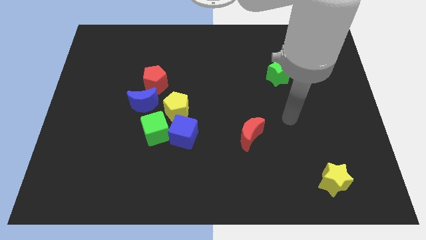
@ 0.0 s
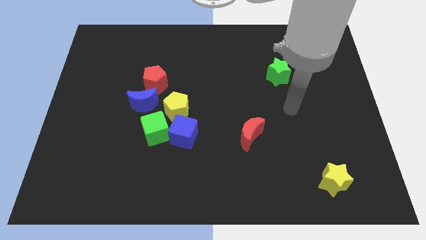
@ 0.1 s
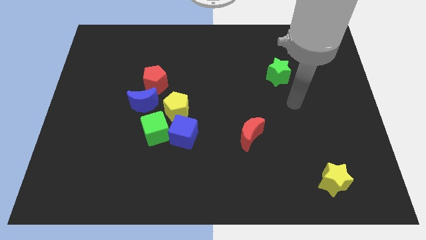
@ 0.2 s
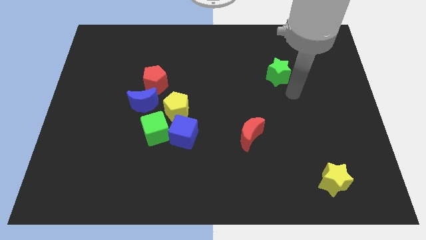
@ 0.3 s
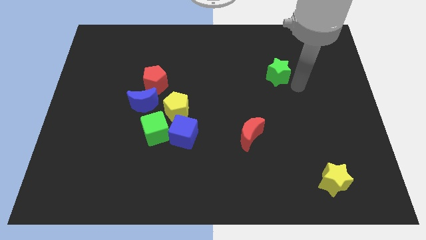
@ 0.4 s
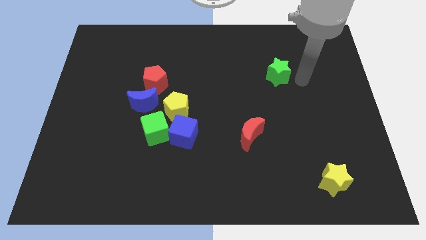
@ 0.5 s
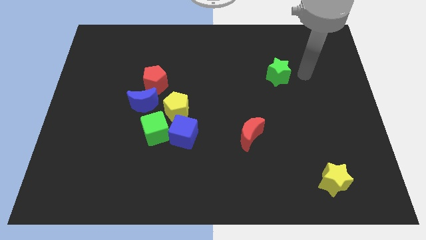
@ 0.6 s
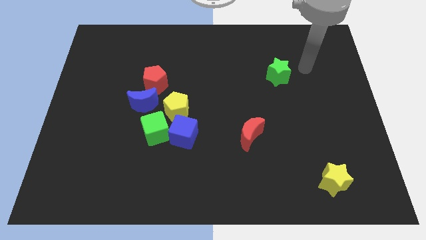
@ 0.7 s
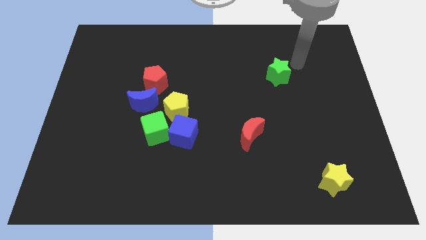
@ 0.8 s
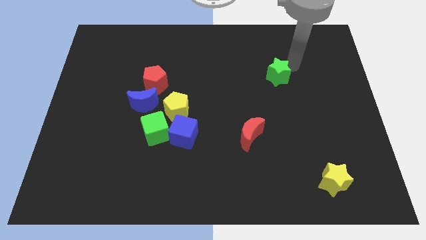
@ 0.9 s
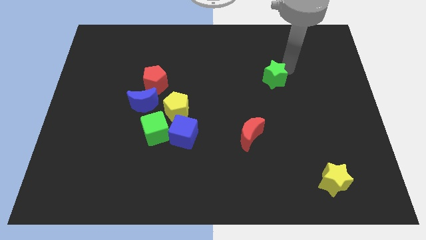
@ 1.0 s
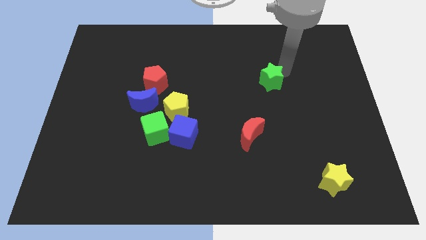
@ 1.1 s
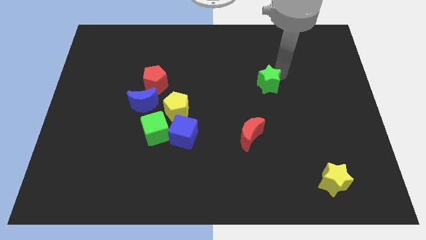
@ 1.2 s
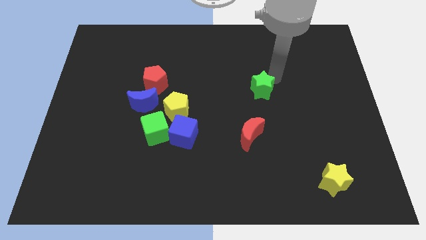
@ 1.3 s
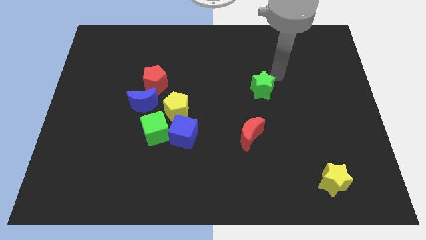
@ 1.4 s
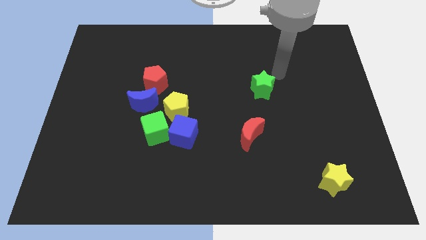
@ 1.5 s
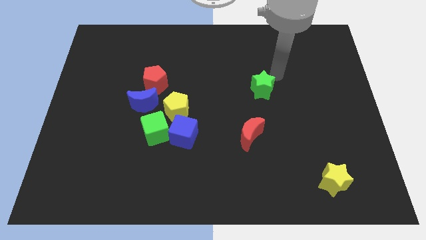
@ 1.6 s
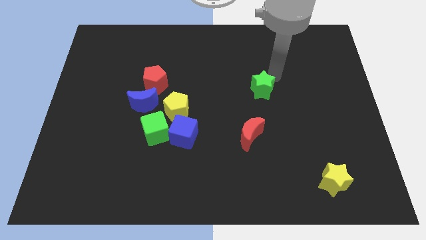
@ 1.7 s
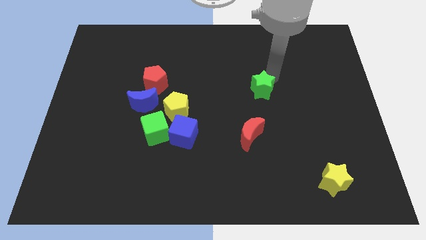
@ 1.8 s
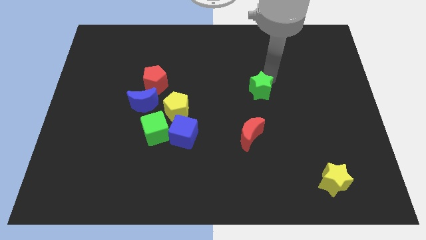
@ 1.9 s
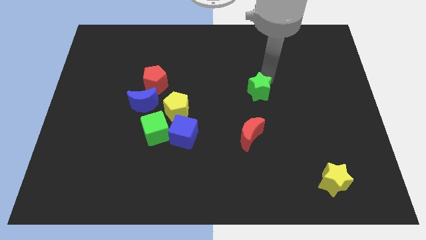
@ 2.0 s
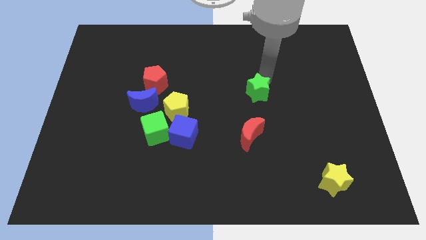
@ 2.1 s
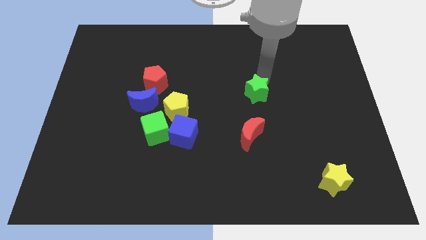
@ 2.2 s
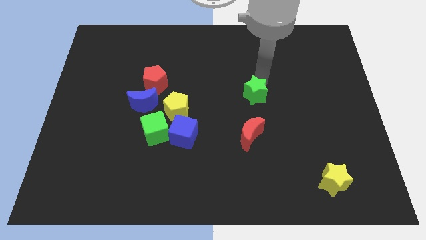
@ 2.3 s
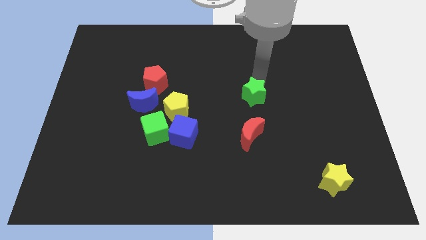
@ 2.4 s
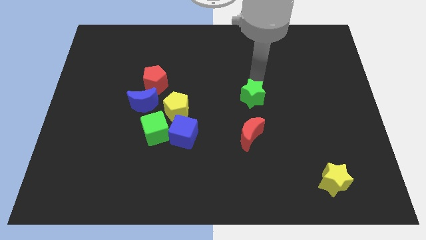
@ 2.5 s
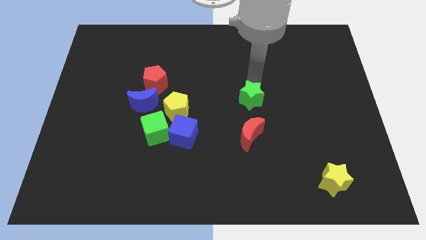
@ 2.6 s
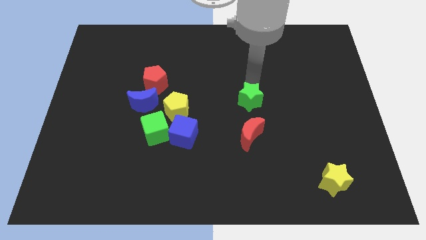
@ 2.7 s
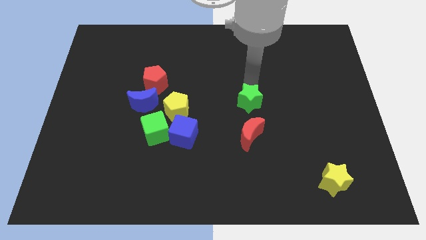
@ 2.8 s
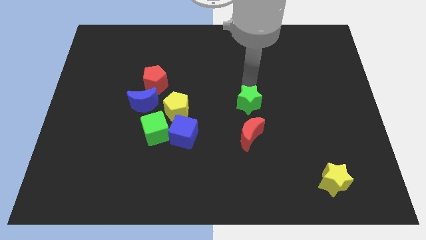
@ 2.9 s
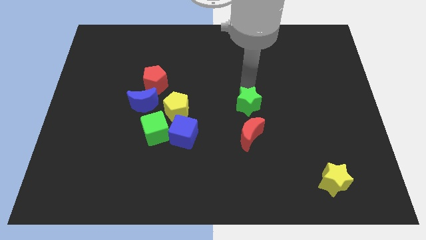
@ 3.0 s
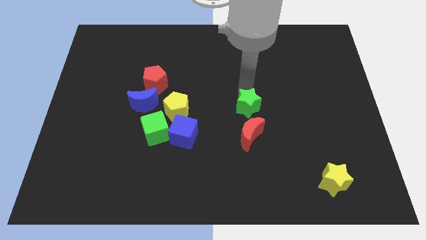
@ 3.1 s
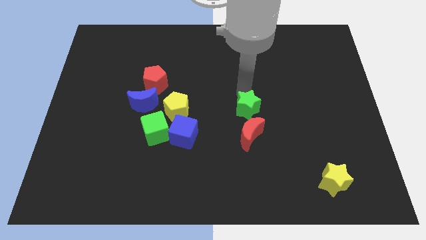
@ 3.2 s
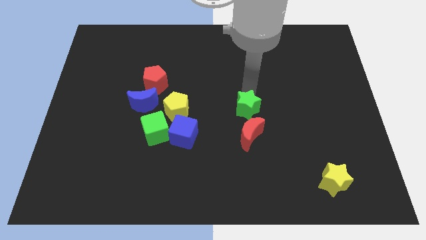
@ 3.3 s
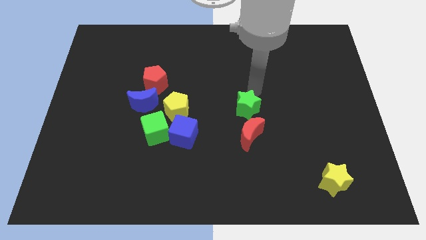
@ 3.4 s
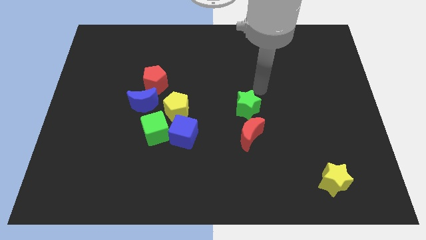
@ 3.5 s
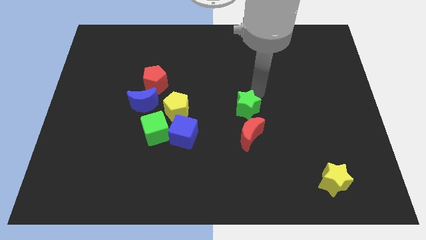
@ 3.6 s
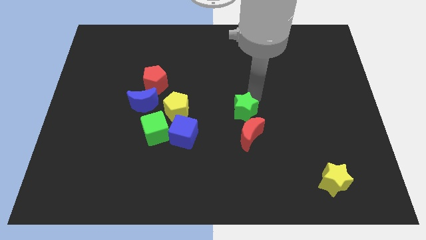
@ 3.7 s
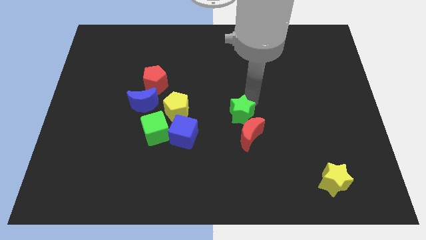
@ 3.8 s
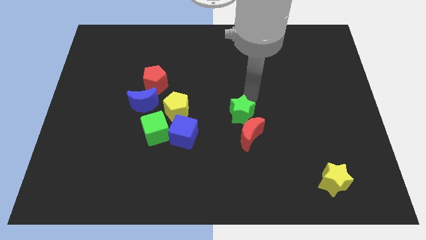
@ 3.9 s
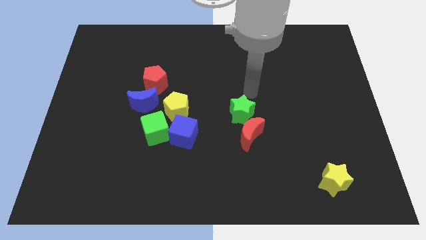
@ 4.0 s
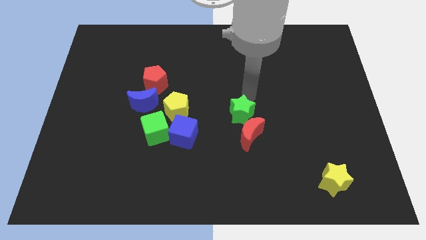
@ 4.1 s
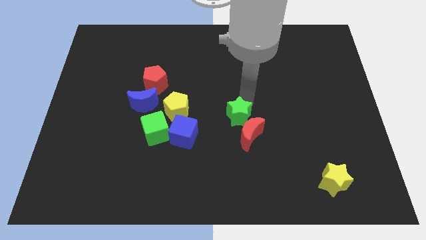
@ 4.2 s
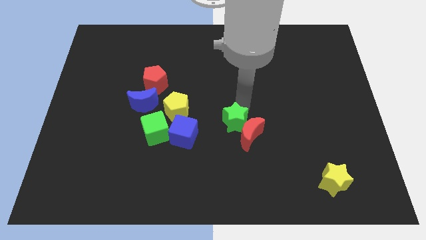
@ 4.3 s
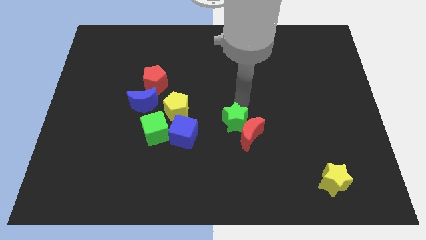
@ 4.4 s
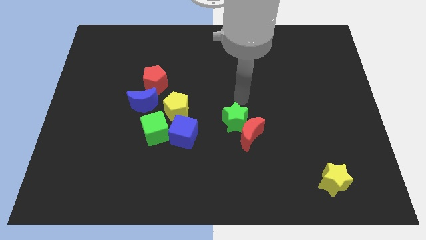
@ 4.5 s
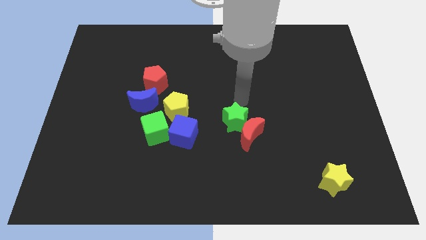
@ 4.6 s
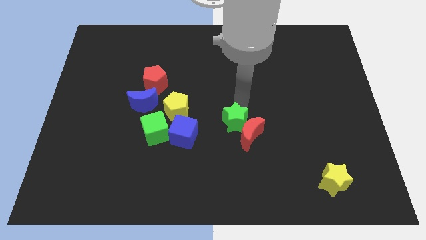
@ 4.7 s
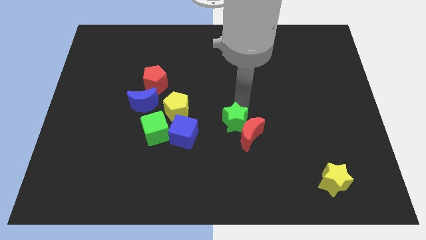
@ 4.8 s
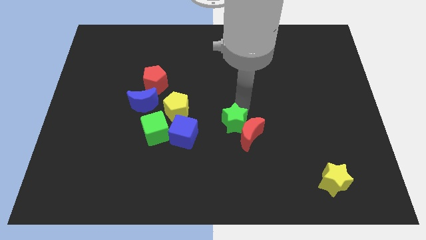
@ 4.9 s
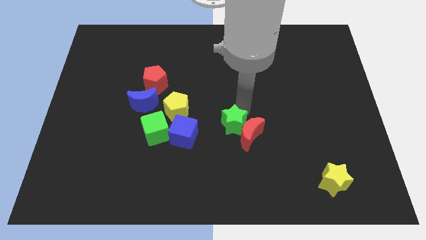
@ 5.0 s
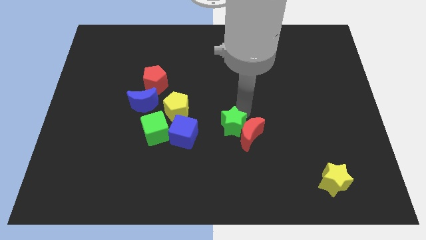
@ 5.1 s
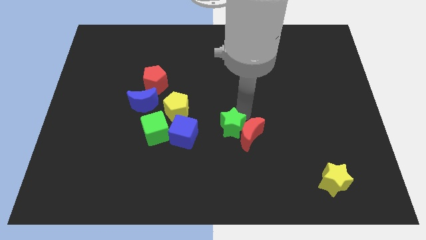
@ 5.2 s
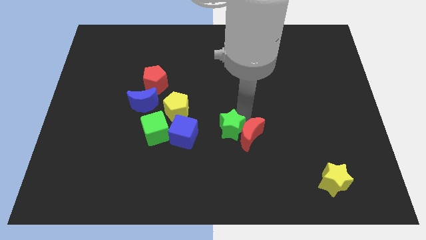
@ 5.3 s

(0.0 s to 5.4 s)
put the green star to the bottom left side of the red moon

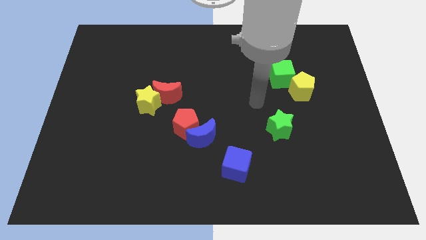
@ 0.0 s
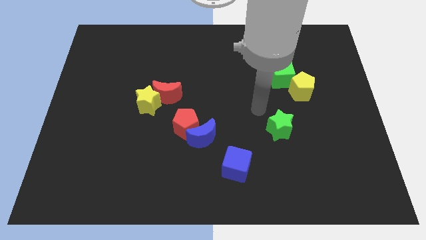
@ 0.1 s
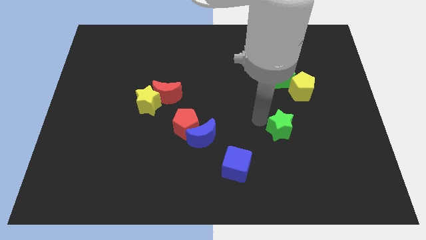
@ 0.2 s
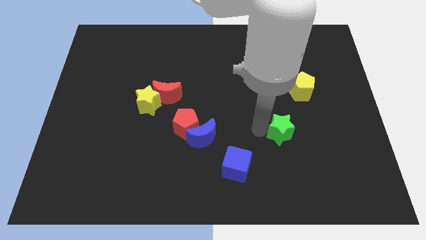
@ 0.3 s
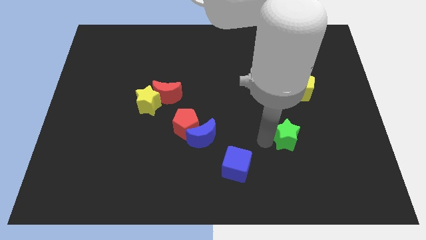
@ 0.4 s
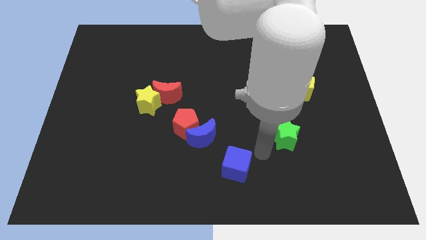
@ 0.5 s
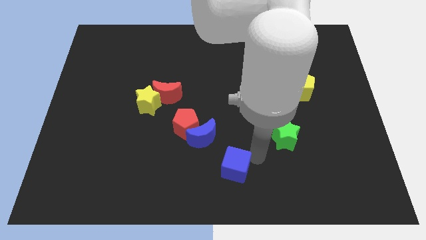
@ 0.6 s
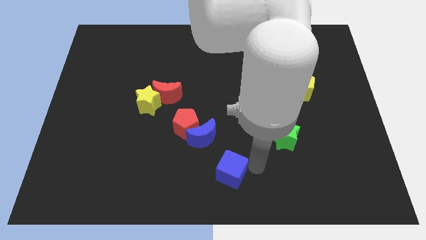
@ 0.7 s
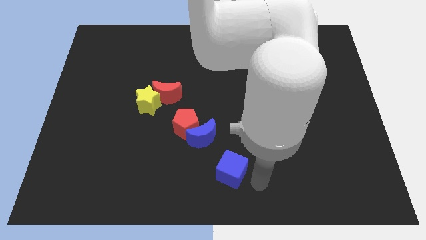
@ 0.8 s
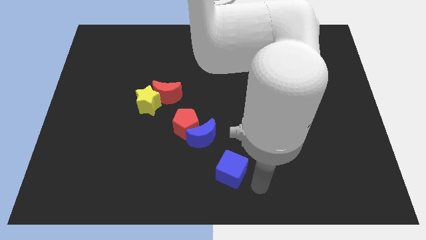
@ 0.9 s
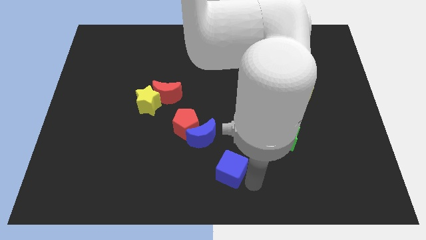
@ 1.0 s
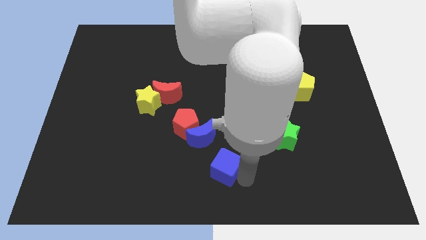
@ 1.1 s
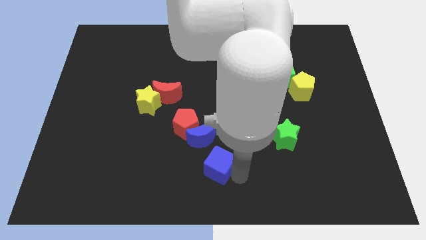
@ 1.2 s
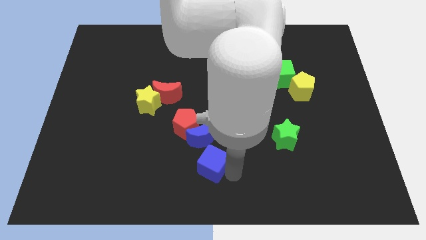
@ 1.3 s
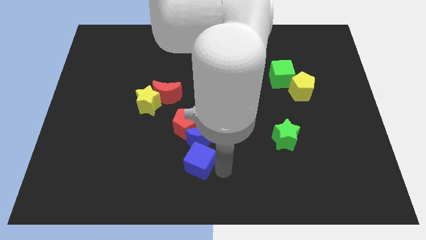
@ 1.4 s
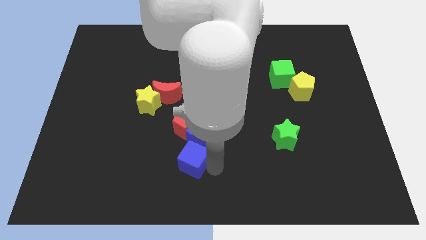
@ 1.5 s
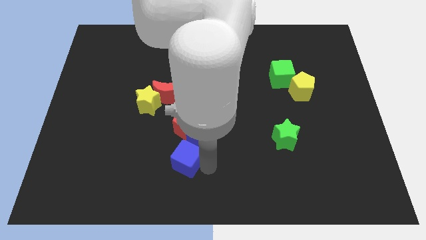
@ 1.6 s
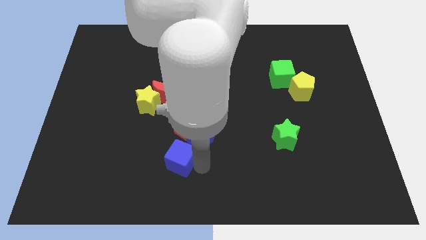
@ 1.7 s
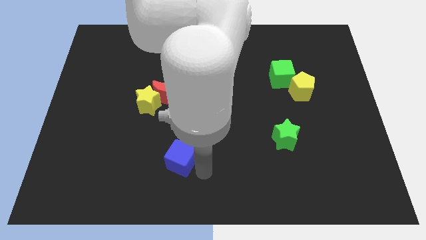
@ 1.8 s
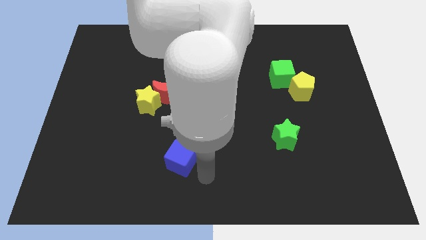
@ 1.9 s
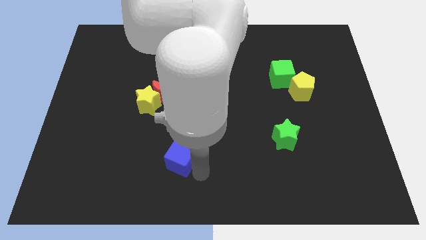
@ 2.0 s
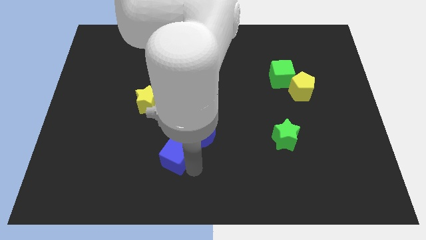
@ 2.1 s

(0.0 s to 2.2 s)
push the blue cube to the bottom left side of the red pentagon
